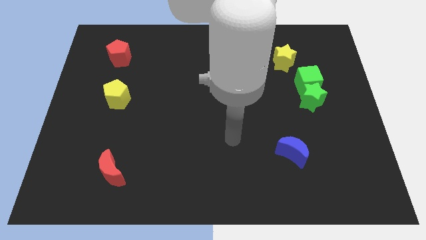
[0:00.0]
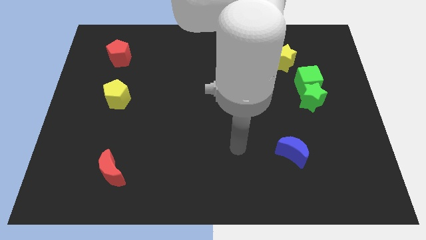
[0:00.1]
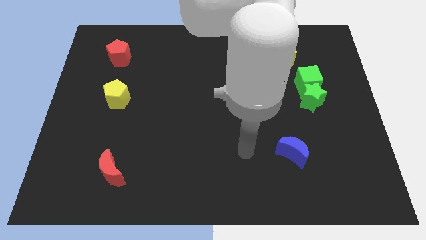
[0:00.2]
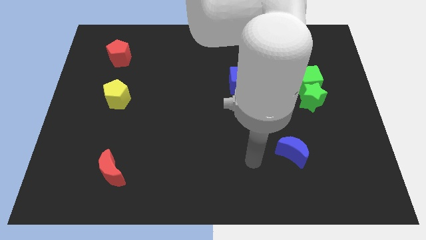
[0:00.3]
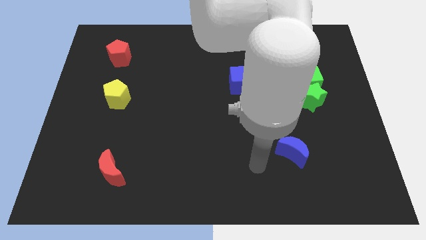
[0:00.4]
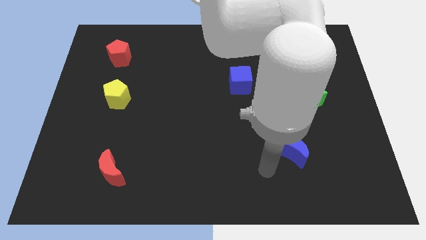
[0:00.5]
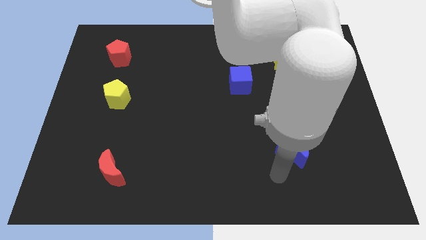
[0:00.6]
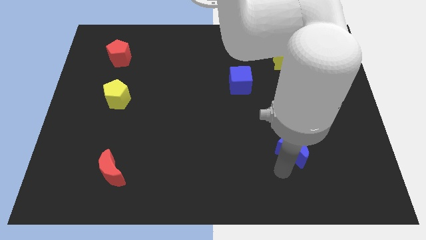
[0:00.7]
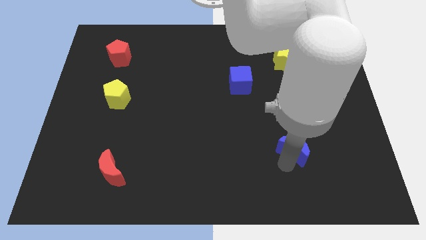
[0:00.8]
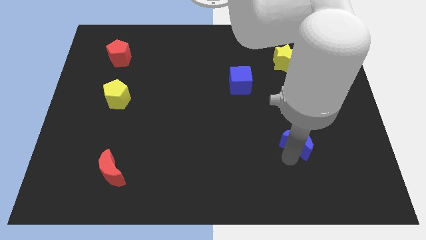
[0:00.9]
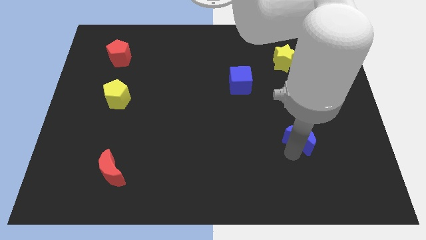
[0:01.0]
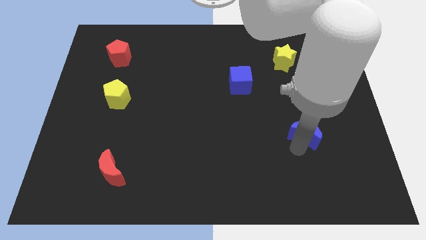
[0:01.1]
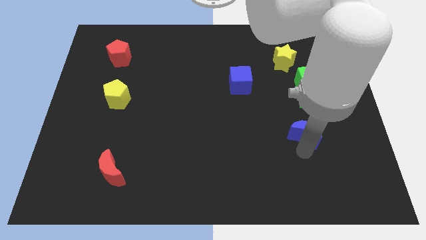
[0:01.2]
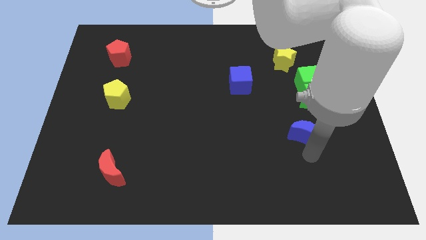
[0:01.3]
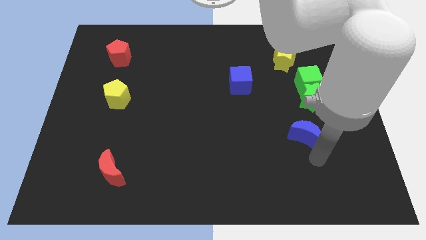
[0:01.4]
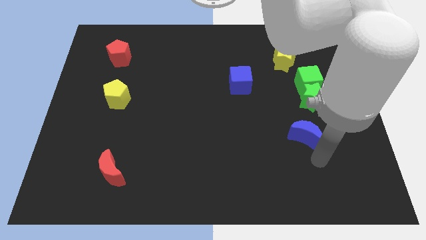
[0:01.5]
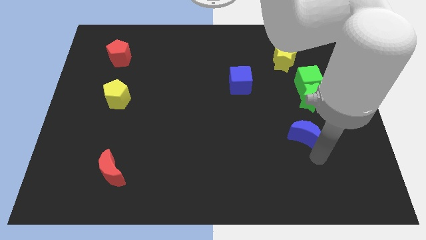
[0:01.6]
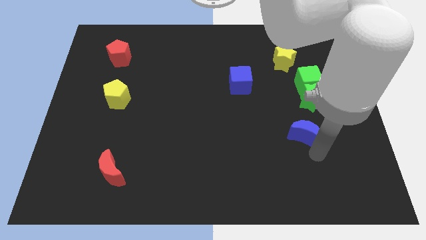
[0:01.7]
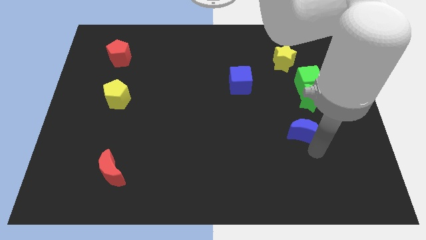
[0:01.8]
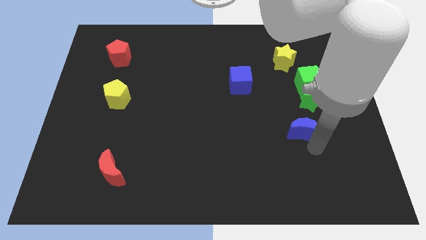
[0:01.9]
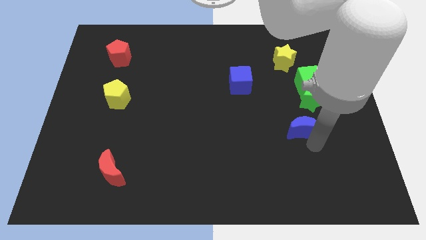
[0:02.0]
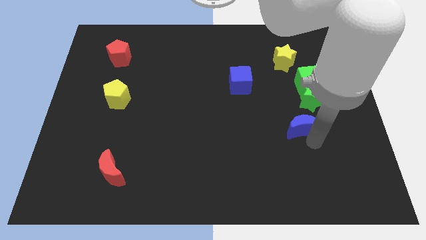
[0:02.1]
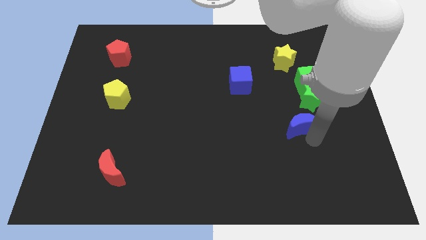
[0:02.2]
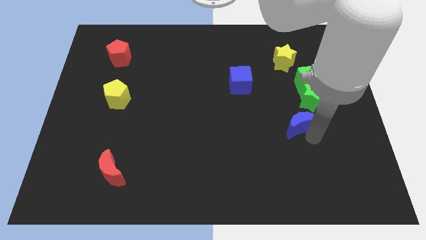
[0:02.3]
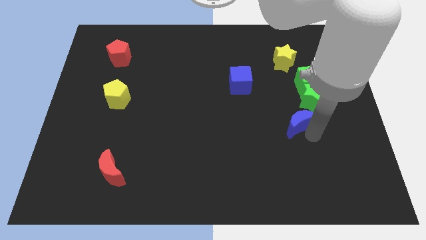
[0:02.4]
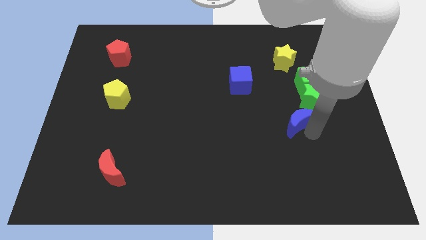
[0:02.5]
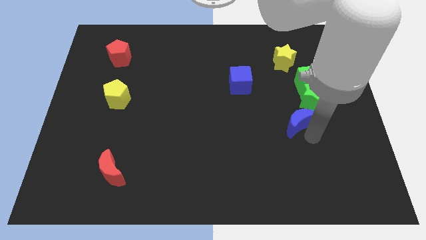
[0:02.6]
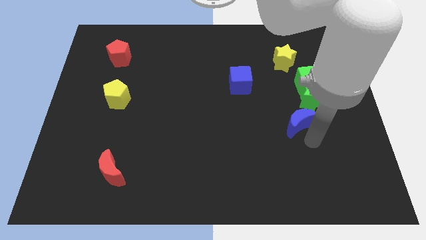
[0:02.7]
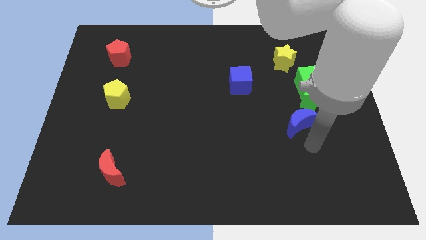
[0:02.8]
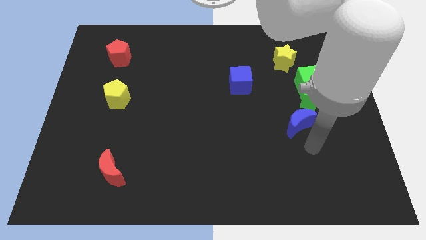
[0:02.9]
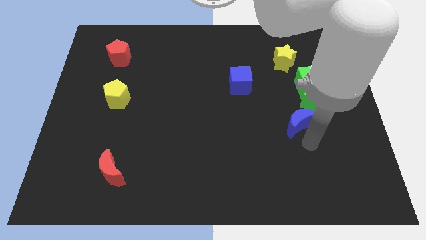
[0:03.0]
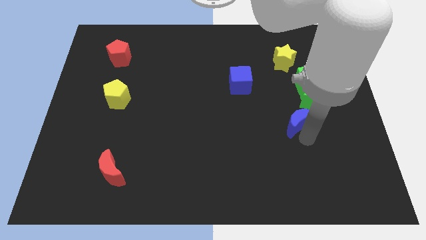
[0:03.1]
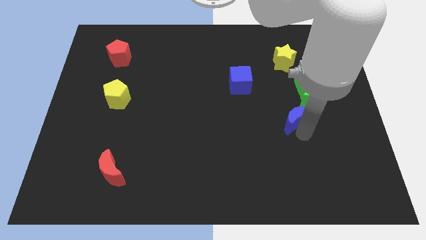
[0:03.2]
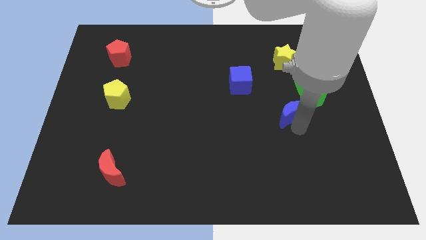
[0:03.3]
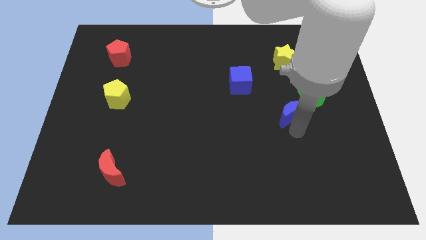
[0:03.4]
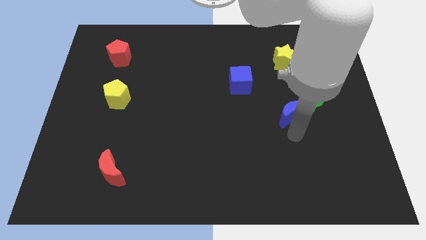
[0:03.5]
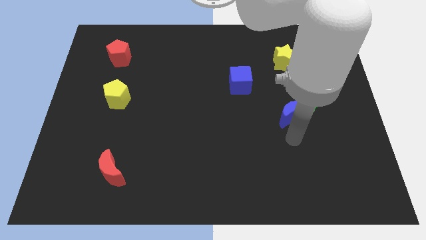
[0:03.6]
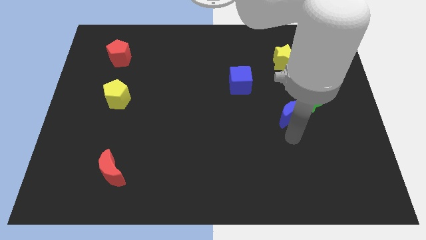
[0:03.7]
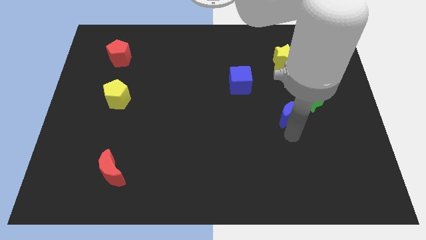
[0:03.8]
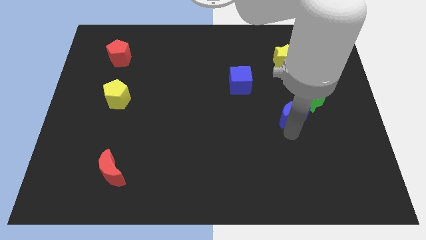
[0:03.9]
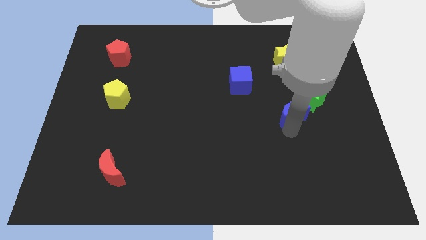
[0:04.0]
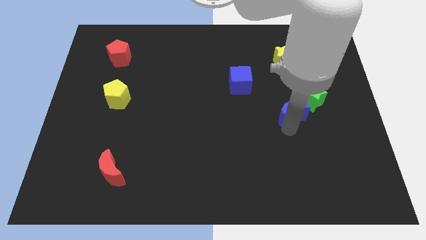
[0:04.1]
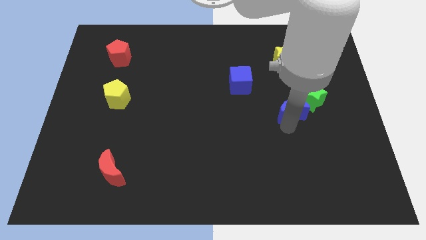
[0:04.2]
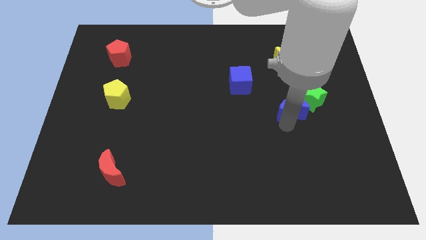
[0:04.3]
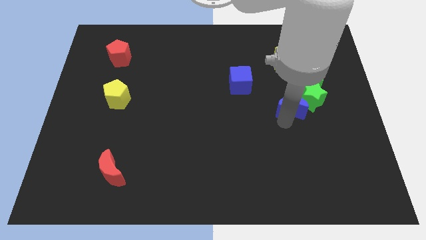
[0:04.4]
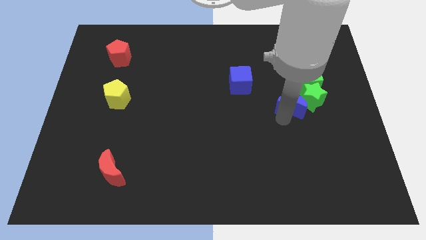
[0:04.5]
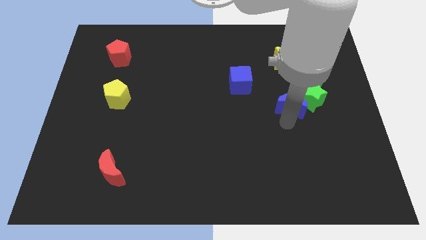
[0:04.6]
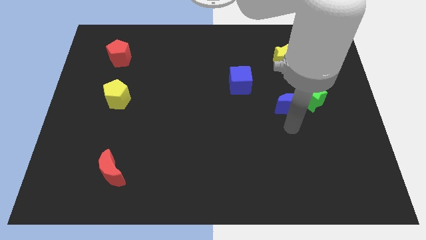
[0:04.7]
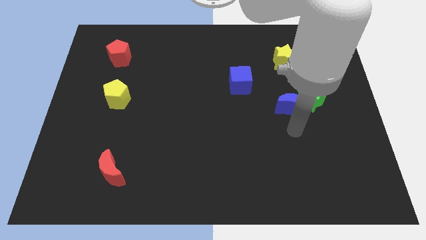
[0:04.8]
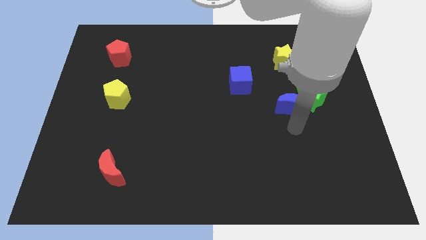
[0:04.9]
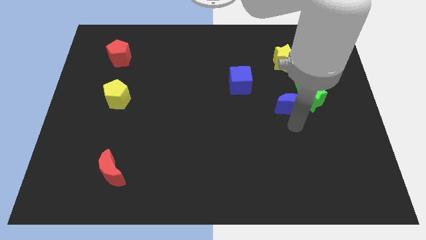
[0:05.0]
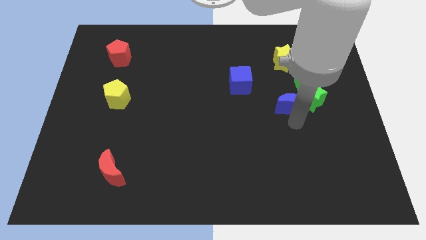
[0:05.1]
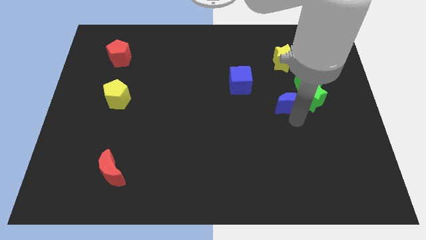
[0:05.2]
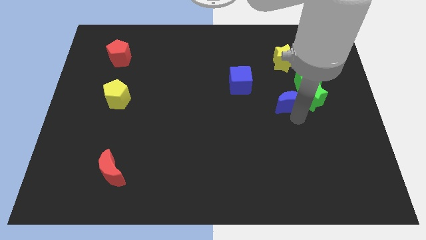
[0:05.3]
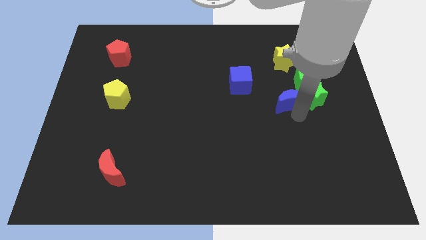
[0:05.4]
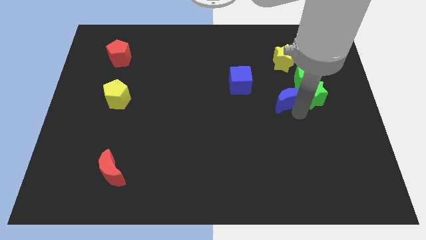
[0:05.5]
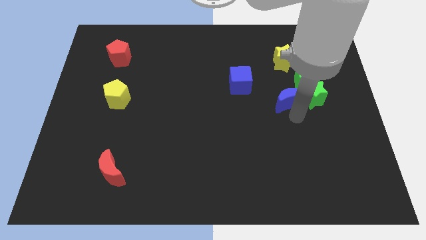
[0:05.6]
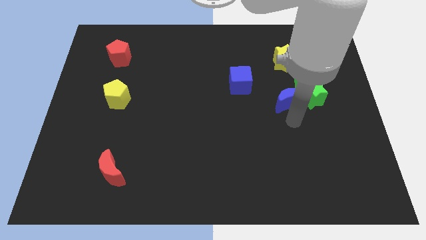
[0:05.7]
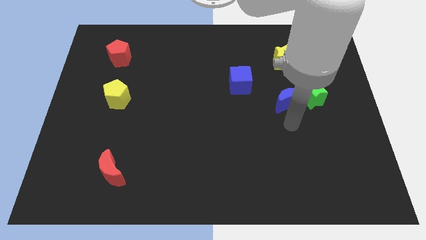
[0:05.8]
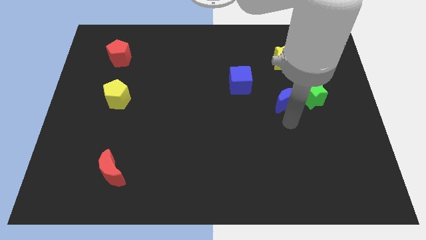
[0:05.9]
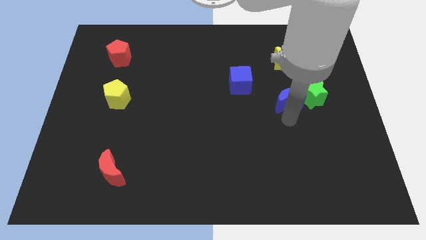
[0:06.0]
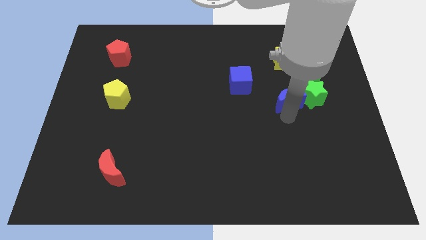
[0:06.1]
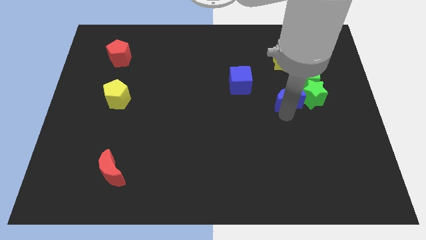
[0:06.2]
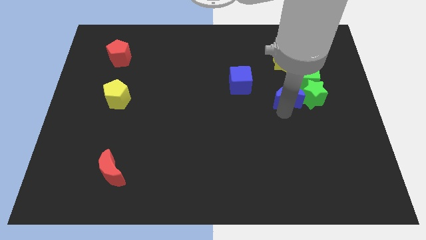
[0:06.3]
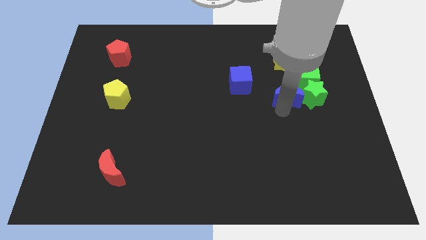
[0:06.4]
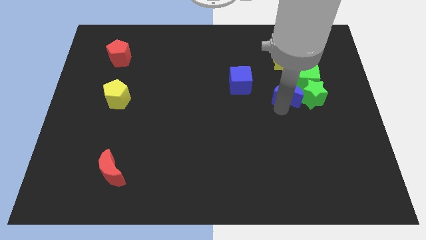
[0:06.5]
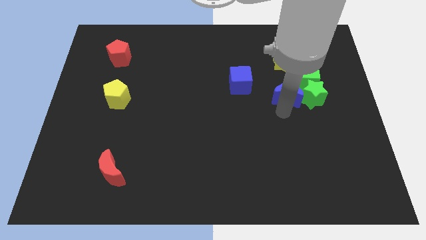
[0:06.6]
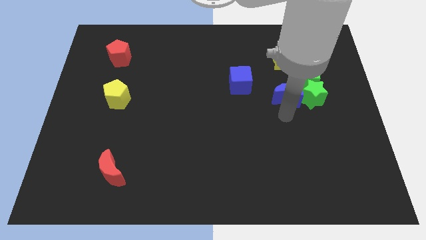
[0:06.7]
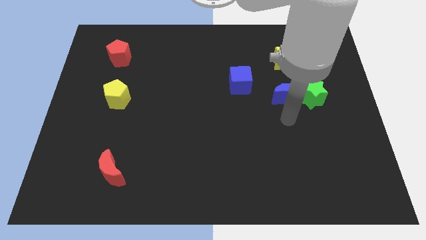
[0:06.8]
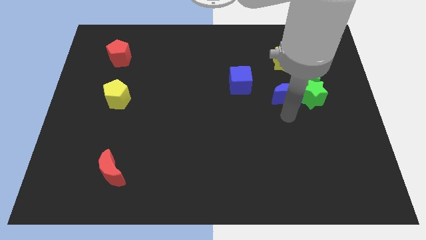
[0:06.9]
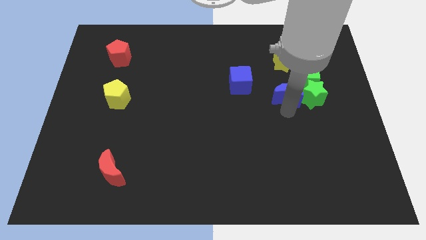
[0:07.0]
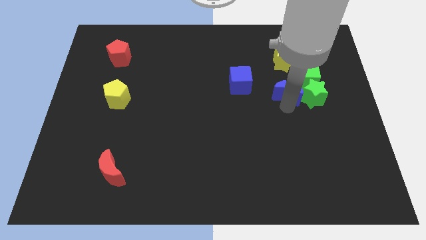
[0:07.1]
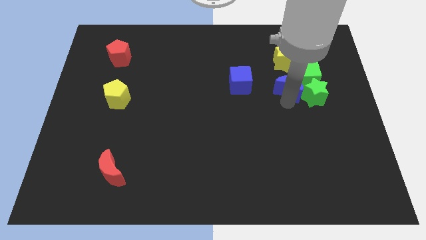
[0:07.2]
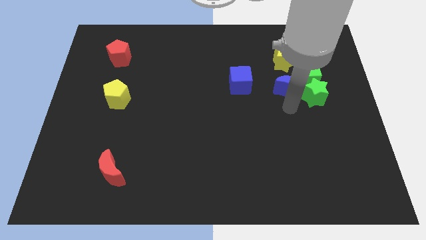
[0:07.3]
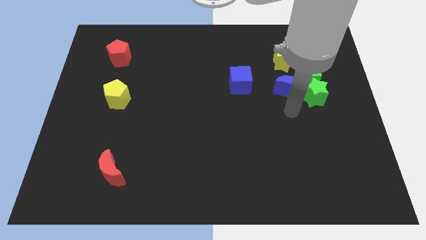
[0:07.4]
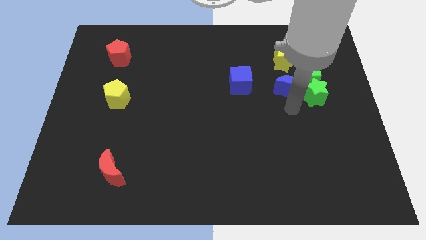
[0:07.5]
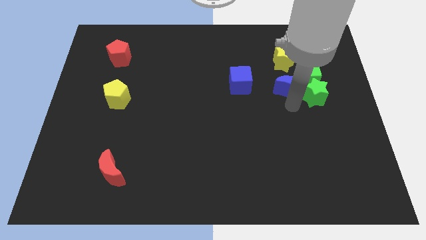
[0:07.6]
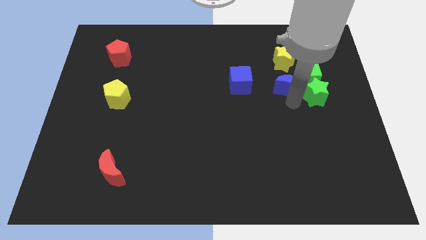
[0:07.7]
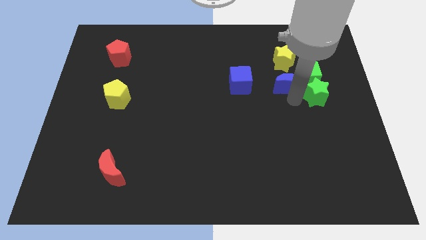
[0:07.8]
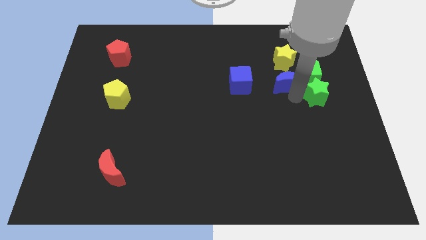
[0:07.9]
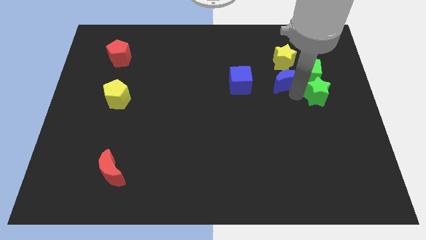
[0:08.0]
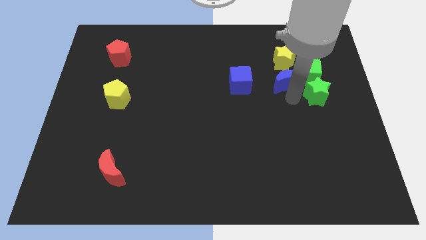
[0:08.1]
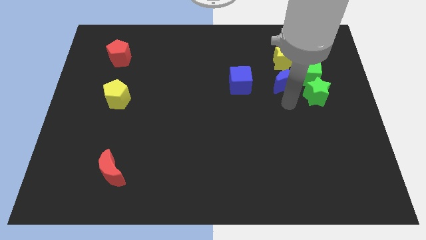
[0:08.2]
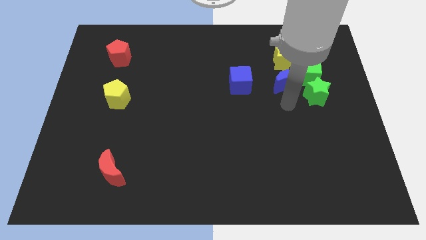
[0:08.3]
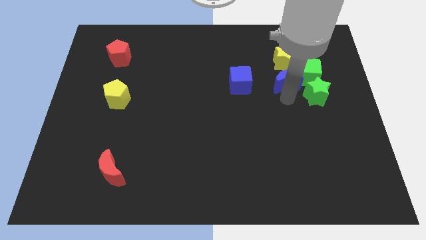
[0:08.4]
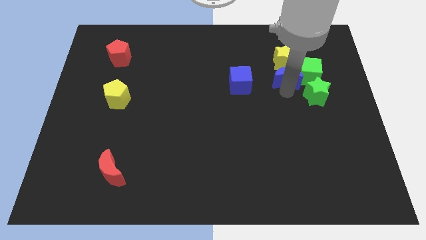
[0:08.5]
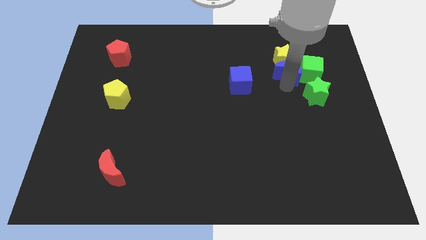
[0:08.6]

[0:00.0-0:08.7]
put the blue moon towards the yellow star
